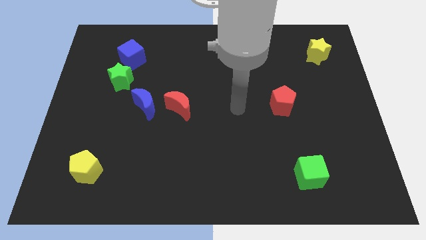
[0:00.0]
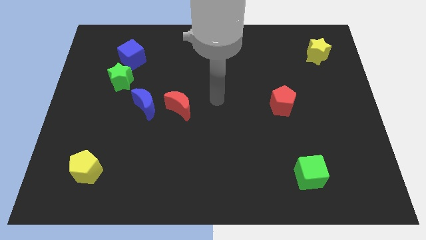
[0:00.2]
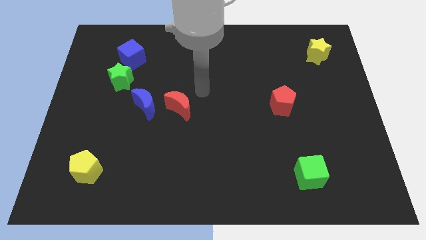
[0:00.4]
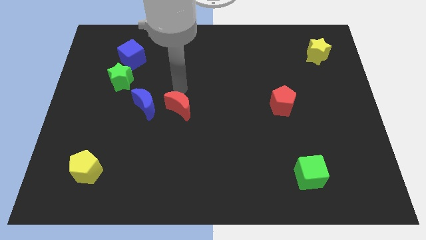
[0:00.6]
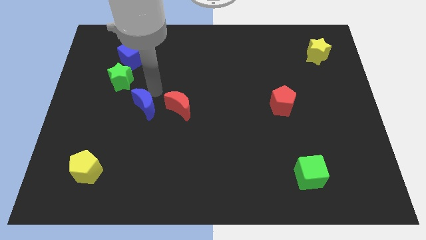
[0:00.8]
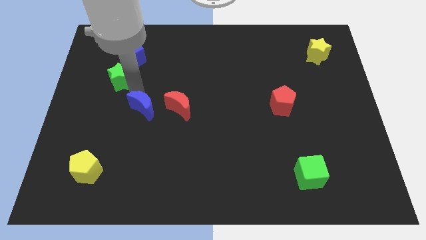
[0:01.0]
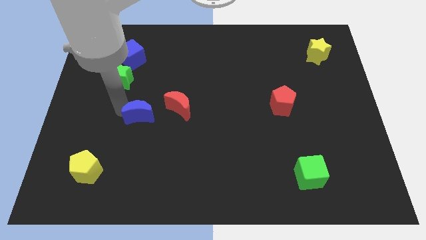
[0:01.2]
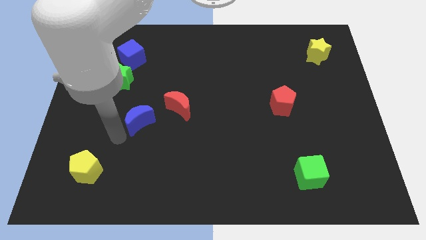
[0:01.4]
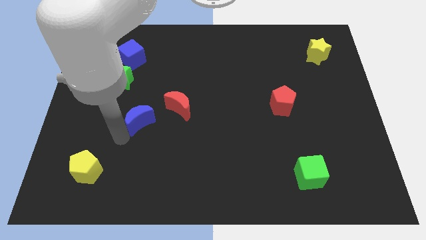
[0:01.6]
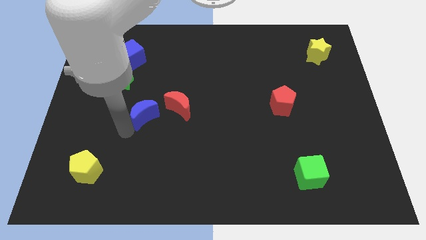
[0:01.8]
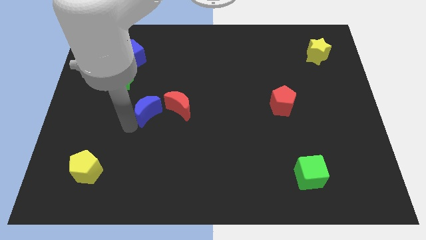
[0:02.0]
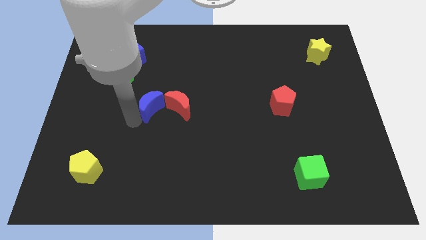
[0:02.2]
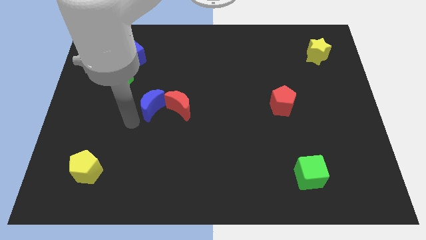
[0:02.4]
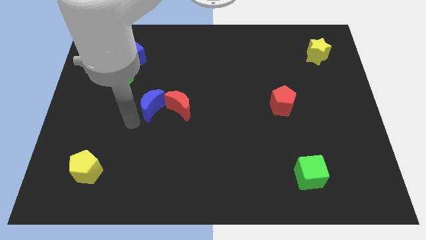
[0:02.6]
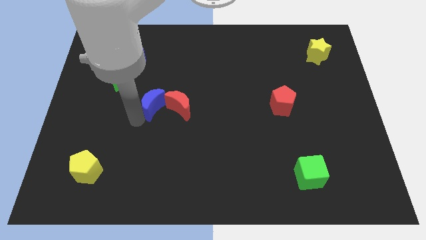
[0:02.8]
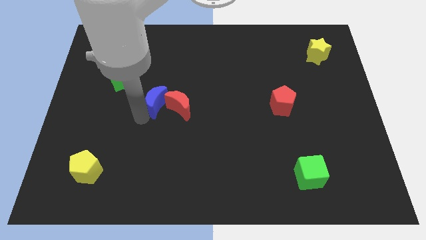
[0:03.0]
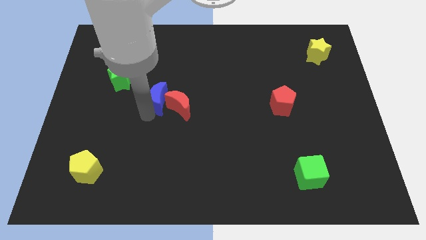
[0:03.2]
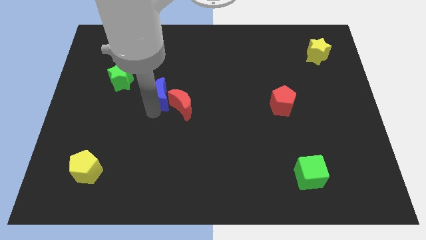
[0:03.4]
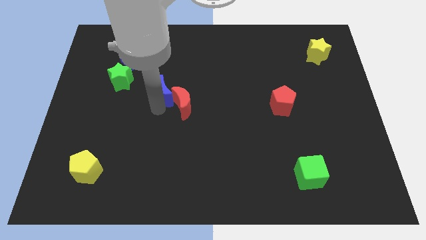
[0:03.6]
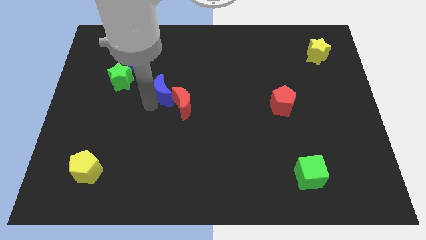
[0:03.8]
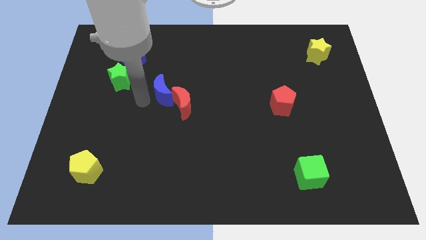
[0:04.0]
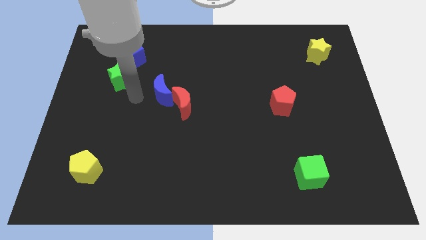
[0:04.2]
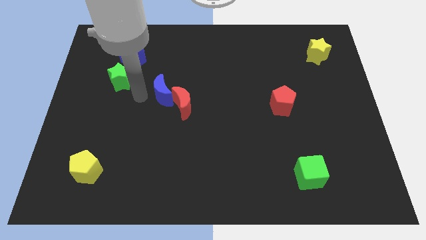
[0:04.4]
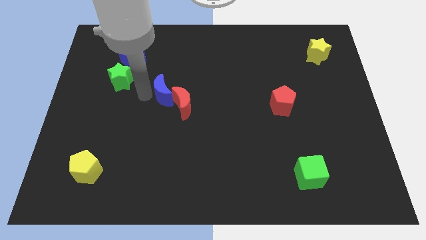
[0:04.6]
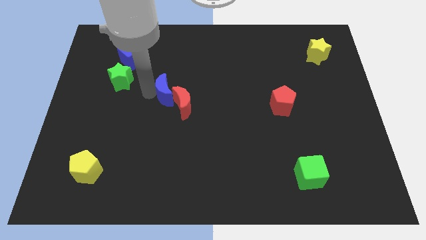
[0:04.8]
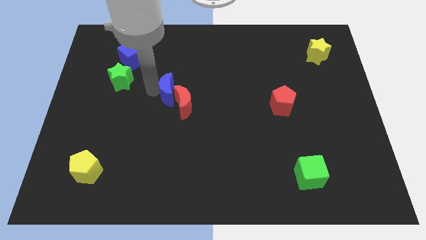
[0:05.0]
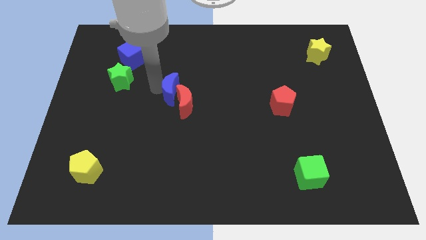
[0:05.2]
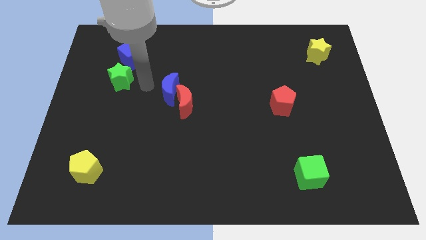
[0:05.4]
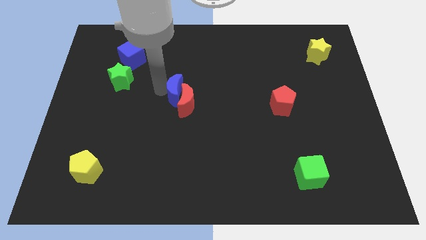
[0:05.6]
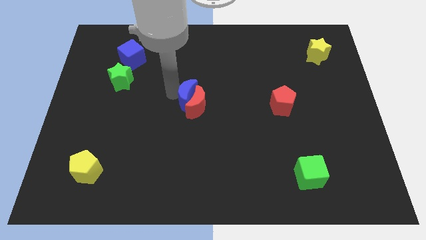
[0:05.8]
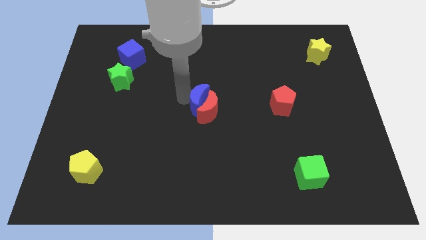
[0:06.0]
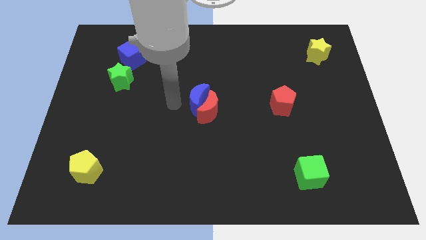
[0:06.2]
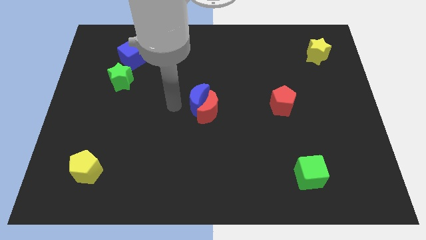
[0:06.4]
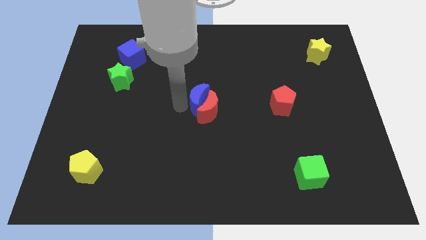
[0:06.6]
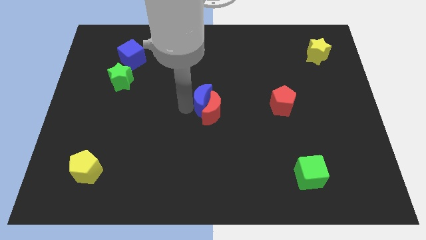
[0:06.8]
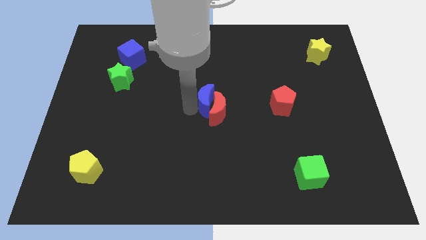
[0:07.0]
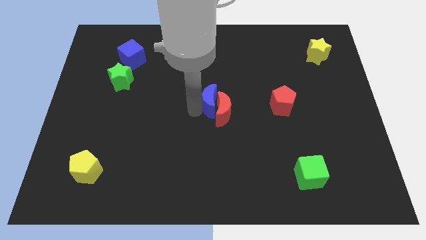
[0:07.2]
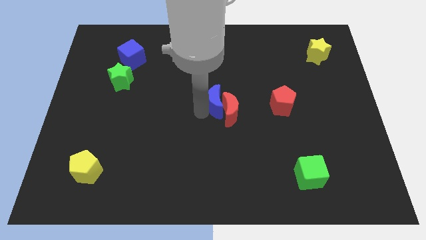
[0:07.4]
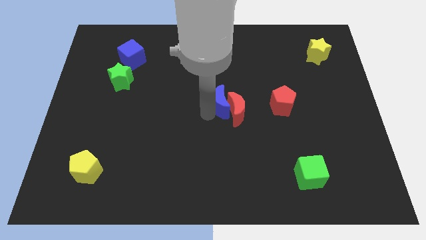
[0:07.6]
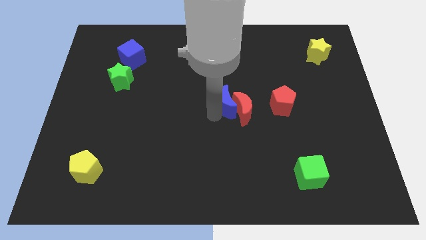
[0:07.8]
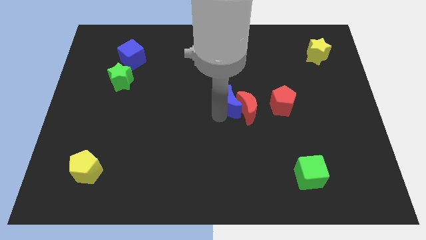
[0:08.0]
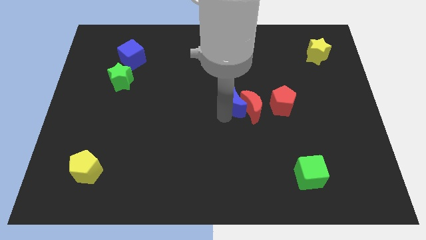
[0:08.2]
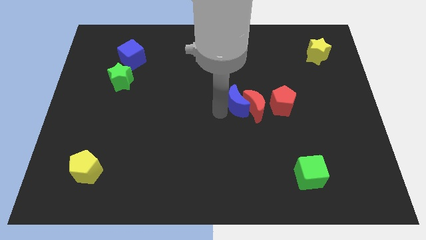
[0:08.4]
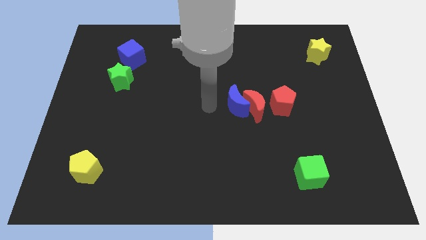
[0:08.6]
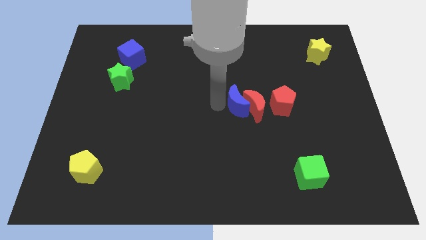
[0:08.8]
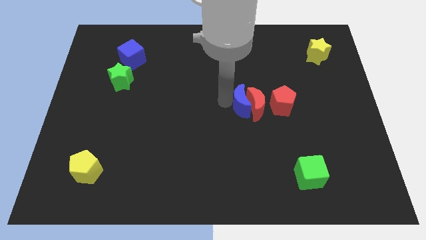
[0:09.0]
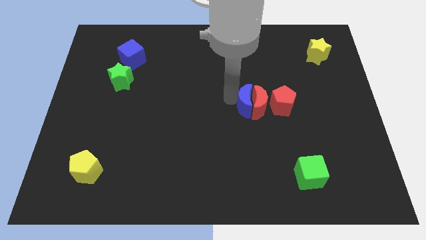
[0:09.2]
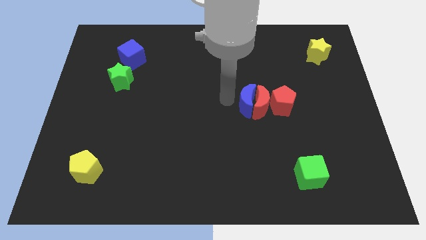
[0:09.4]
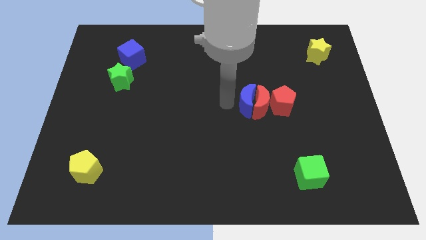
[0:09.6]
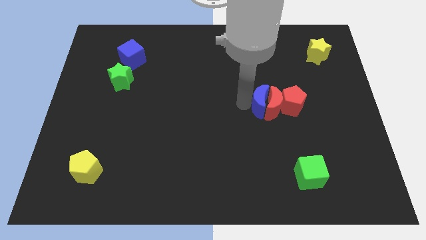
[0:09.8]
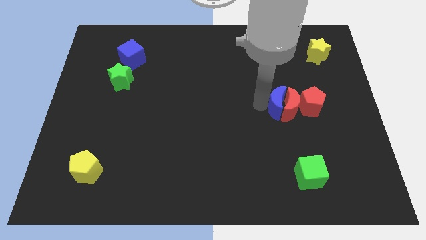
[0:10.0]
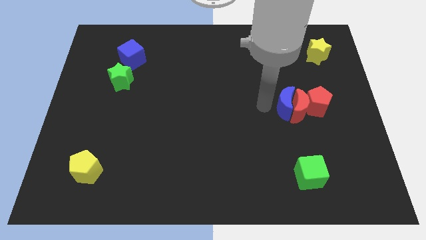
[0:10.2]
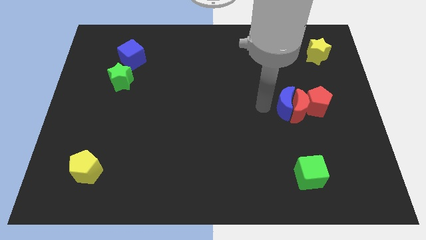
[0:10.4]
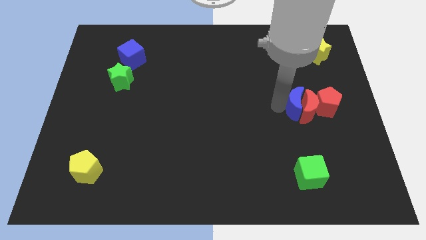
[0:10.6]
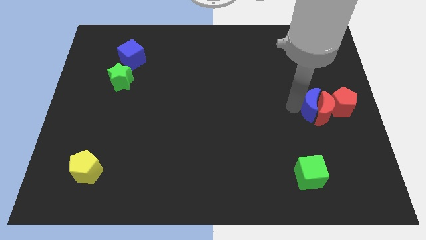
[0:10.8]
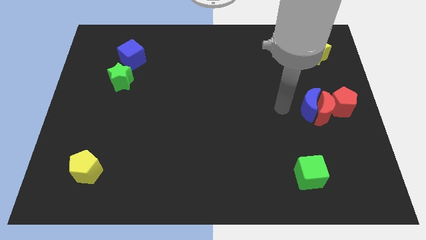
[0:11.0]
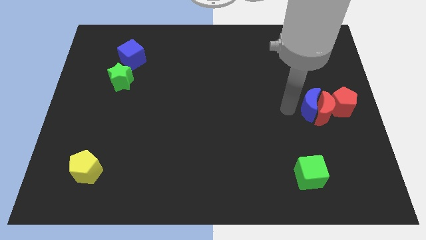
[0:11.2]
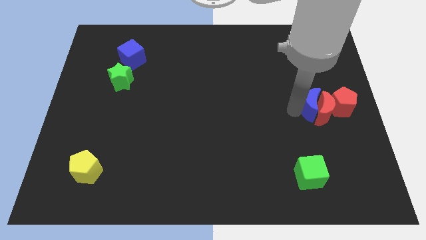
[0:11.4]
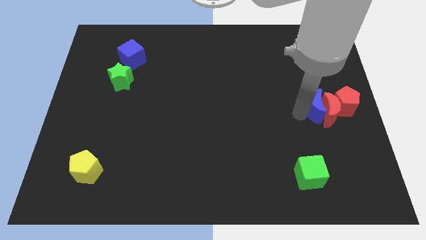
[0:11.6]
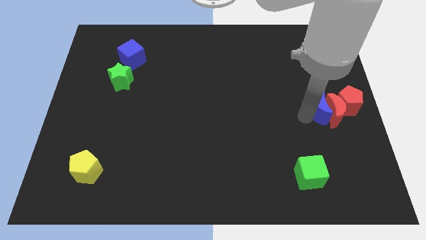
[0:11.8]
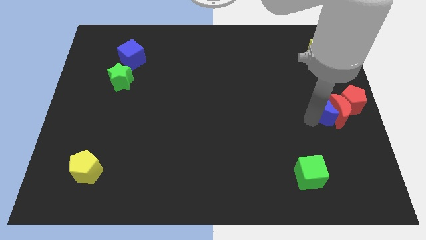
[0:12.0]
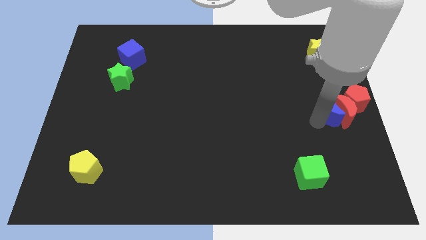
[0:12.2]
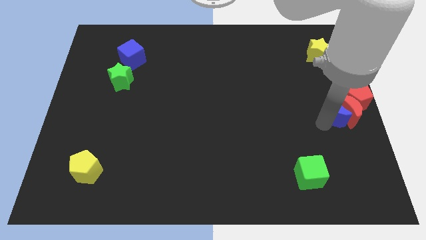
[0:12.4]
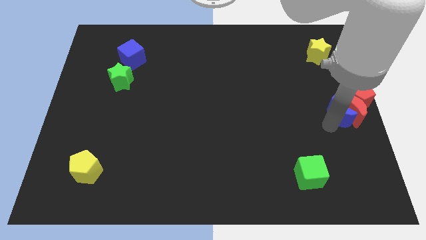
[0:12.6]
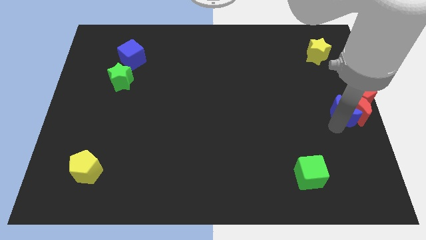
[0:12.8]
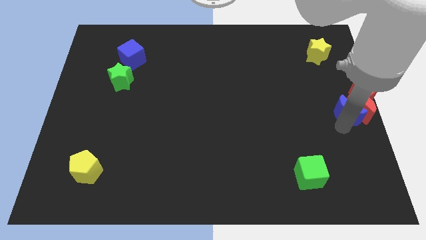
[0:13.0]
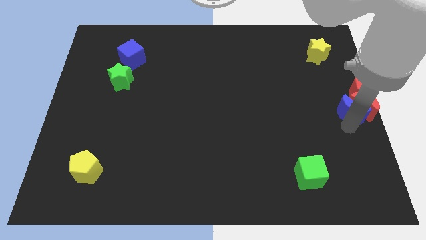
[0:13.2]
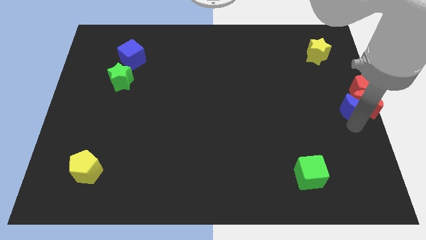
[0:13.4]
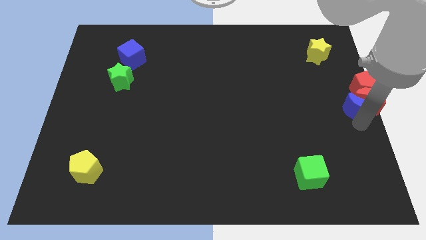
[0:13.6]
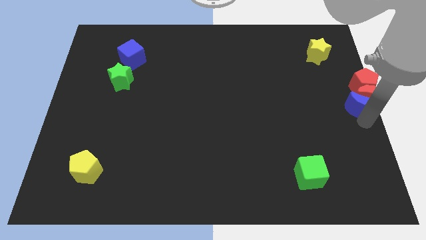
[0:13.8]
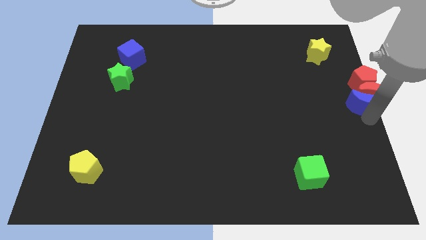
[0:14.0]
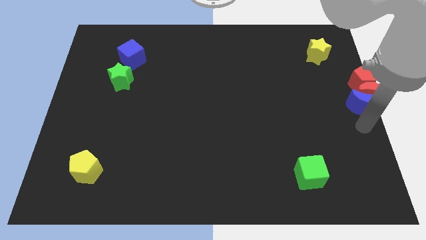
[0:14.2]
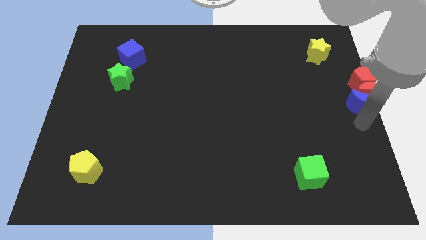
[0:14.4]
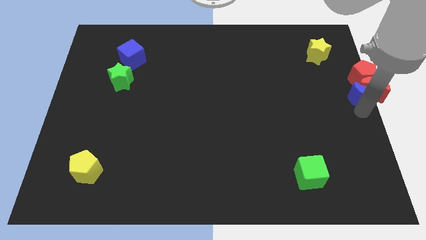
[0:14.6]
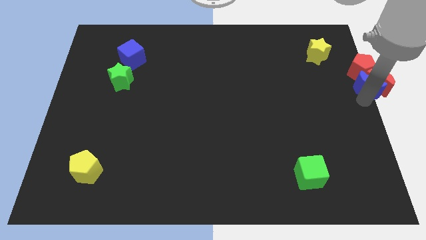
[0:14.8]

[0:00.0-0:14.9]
put the blue moon next to the red pentagon
